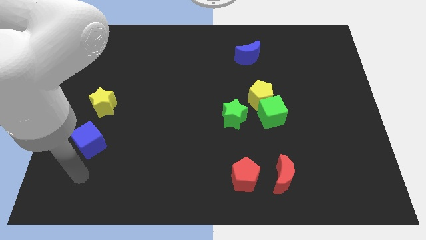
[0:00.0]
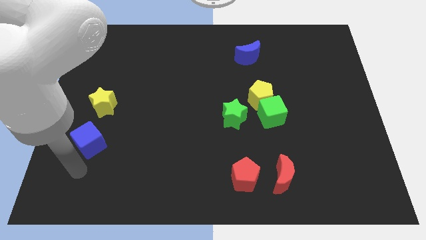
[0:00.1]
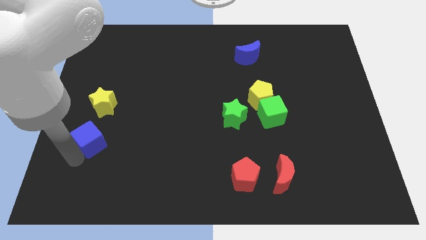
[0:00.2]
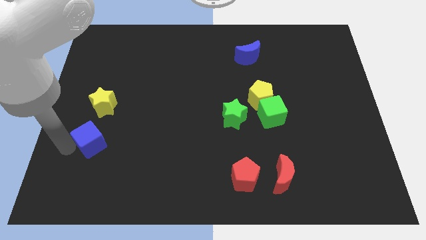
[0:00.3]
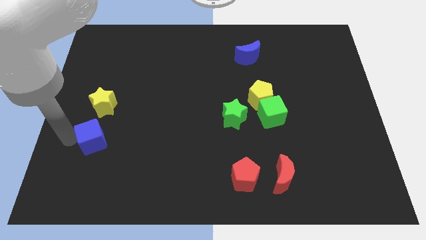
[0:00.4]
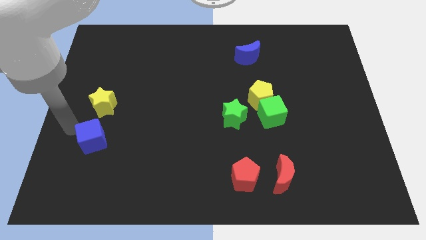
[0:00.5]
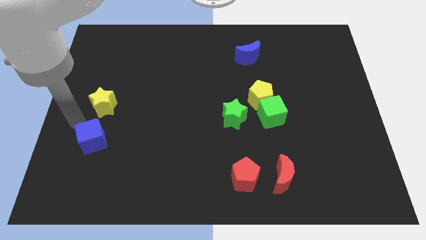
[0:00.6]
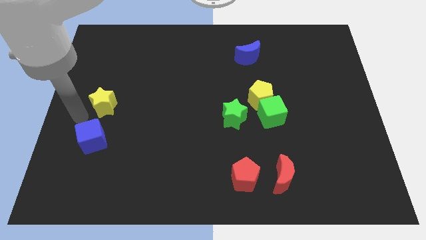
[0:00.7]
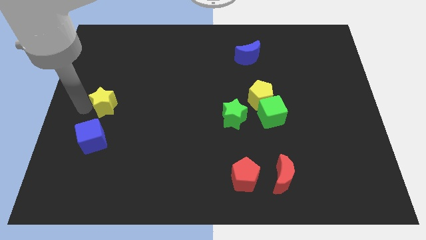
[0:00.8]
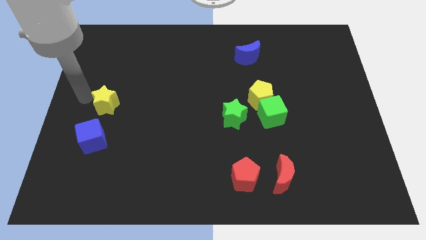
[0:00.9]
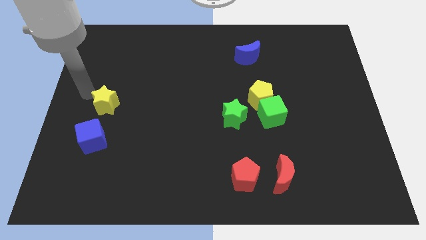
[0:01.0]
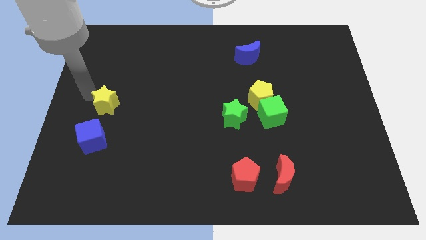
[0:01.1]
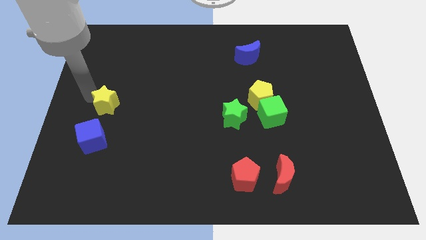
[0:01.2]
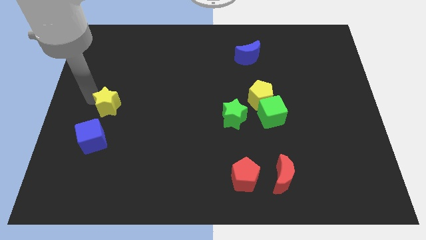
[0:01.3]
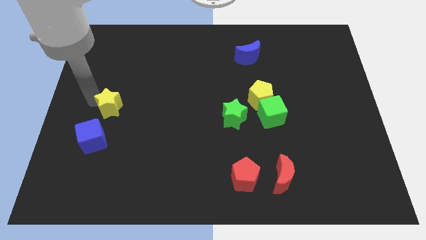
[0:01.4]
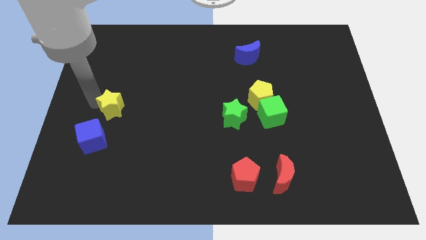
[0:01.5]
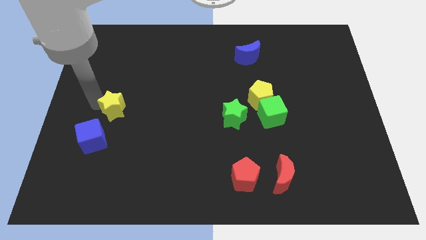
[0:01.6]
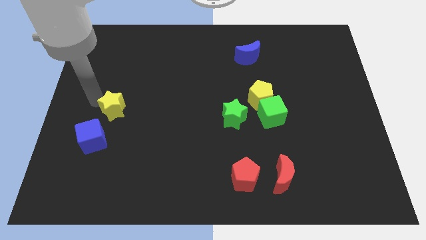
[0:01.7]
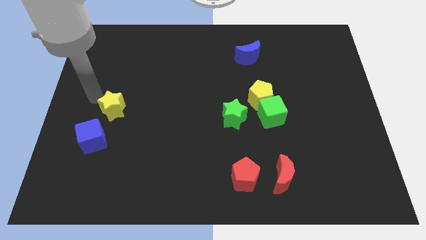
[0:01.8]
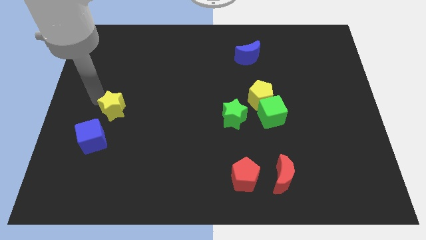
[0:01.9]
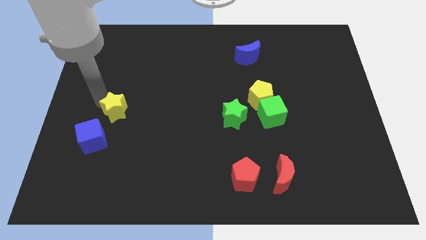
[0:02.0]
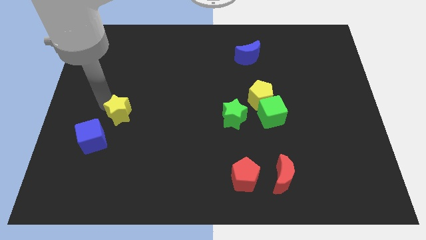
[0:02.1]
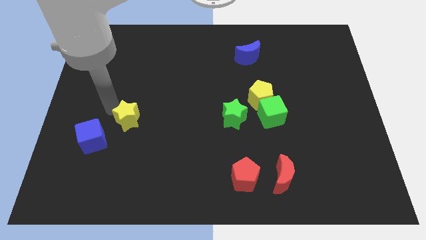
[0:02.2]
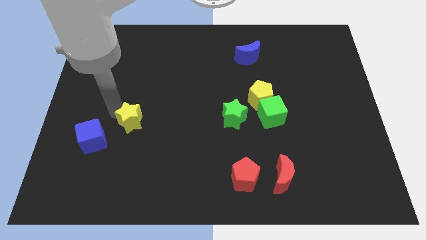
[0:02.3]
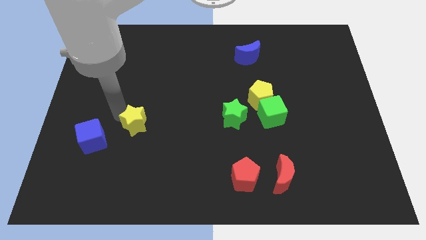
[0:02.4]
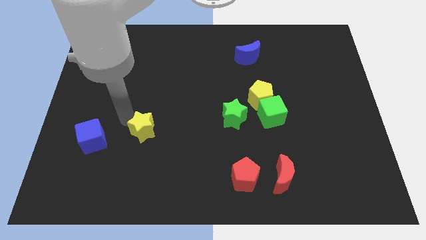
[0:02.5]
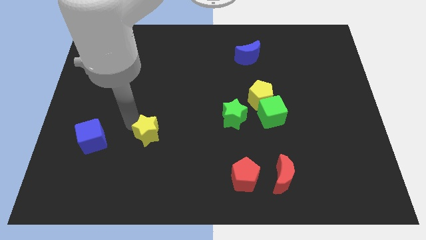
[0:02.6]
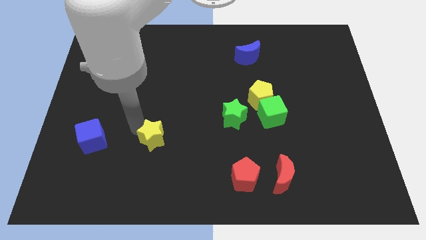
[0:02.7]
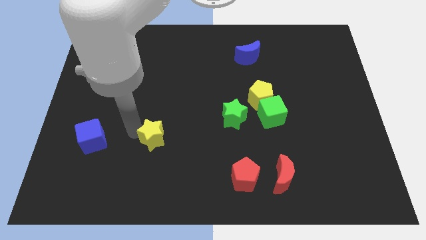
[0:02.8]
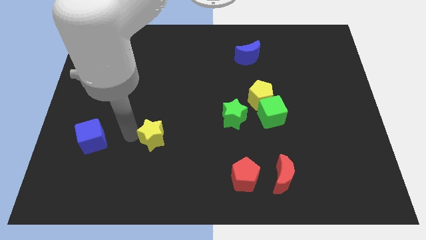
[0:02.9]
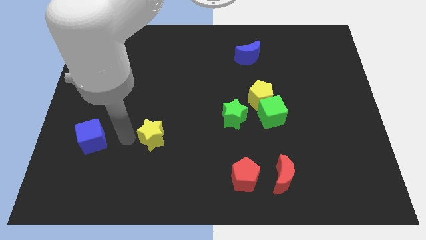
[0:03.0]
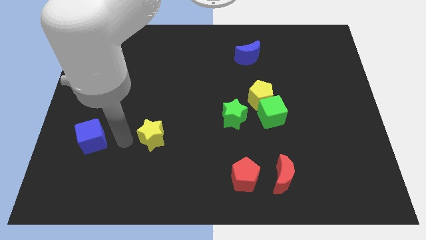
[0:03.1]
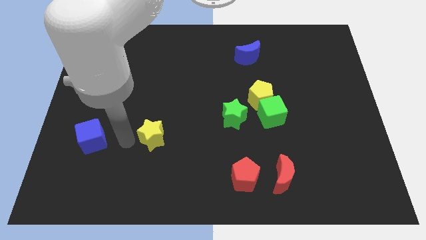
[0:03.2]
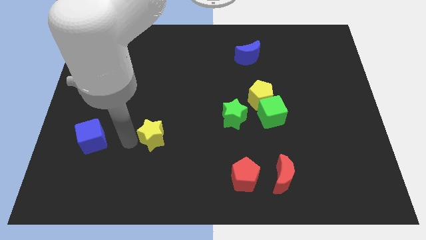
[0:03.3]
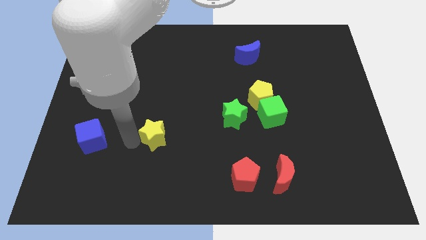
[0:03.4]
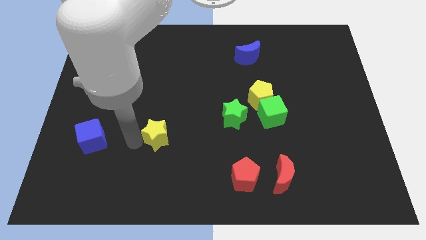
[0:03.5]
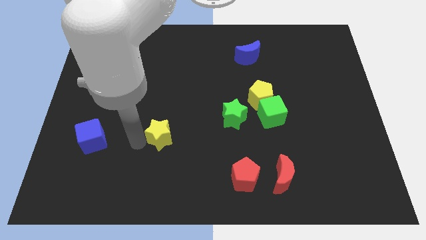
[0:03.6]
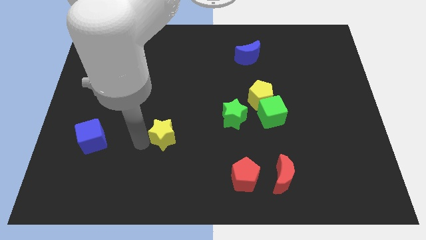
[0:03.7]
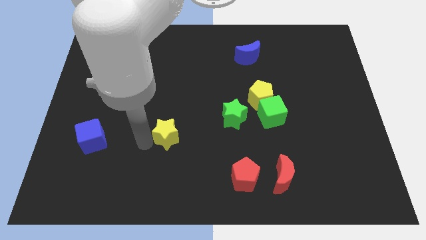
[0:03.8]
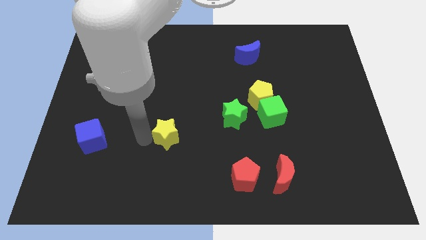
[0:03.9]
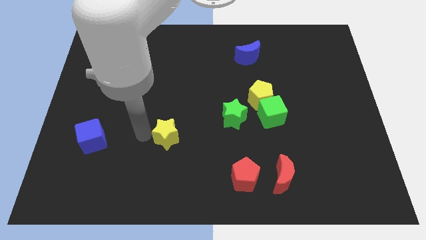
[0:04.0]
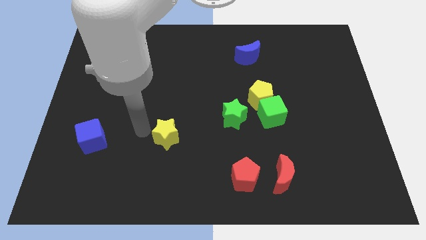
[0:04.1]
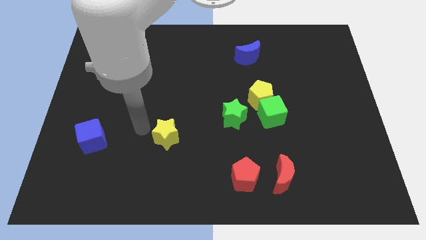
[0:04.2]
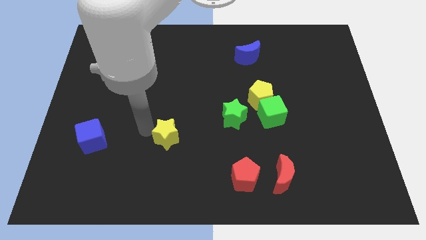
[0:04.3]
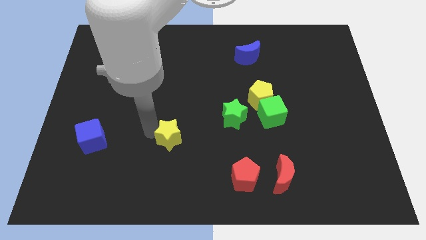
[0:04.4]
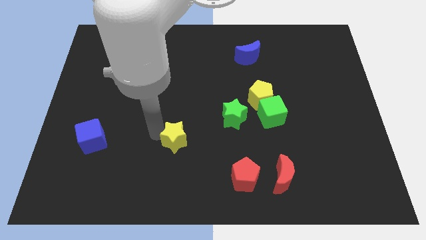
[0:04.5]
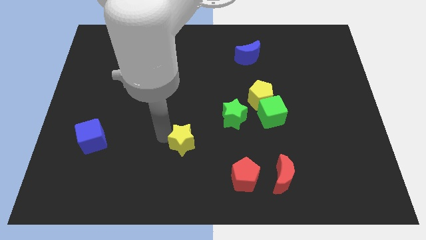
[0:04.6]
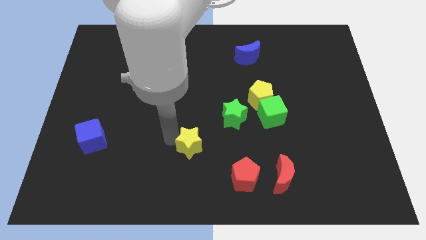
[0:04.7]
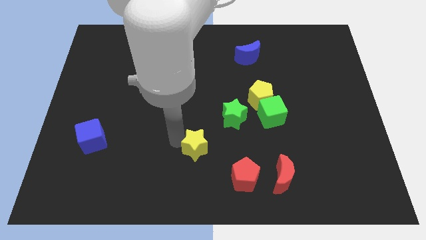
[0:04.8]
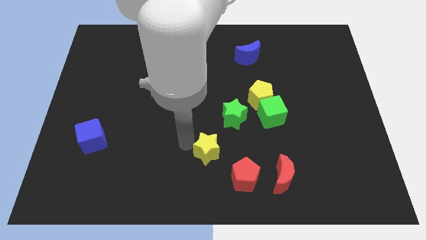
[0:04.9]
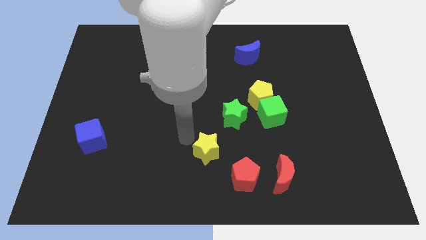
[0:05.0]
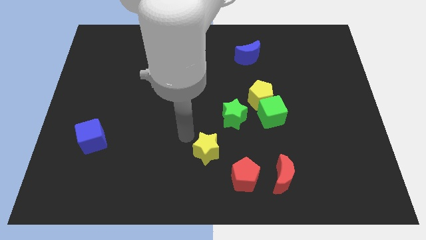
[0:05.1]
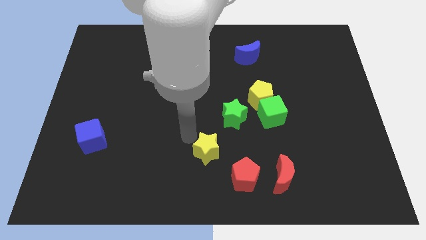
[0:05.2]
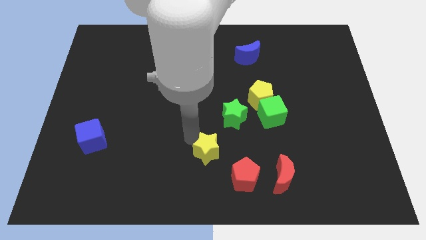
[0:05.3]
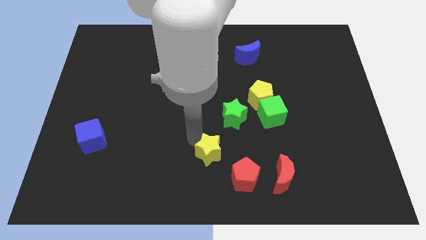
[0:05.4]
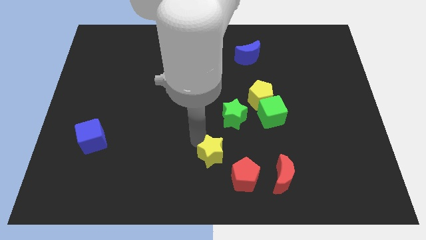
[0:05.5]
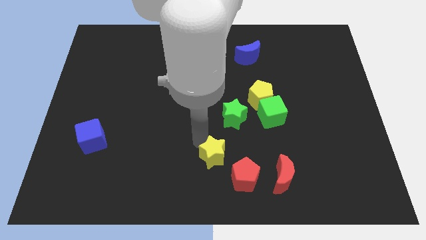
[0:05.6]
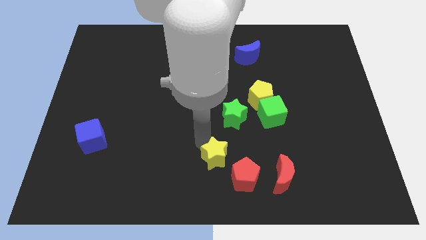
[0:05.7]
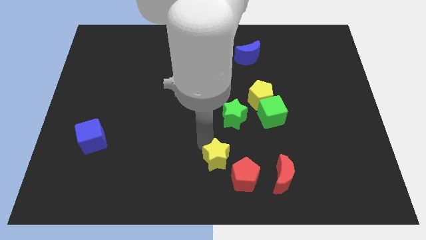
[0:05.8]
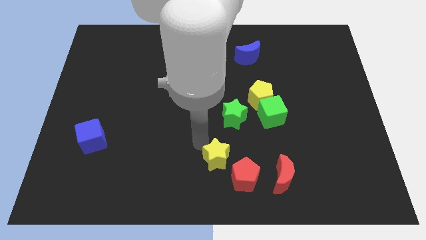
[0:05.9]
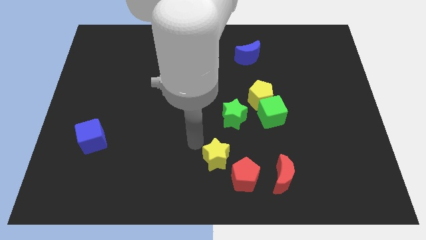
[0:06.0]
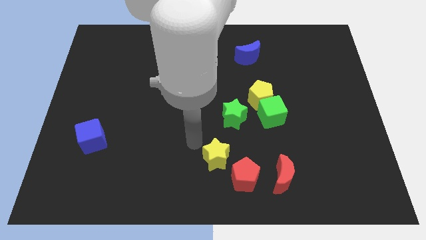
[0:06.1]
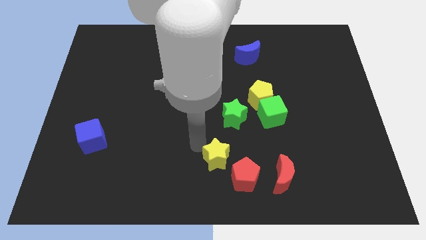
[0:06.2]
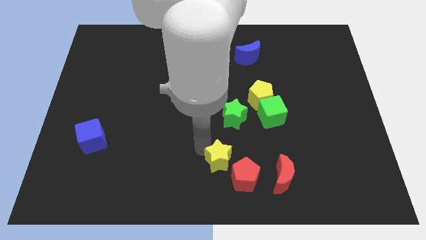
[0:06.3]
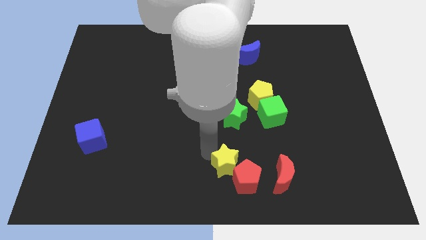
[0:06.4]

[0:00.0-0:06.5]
put the yellow star next to the red pentagon
